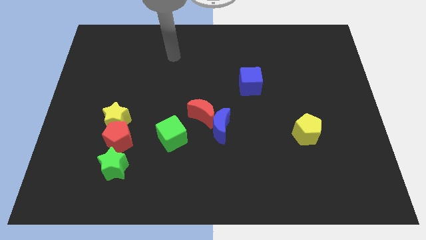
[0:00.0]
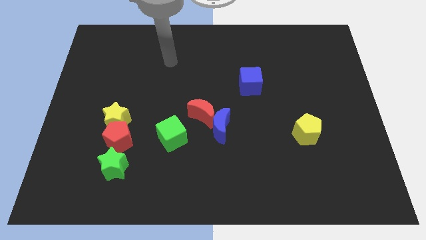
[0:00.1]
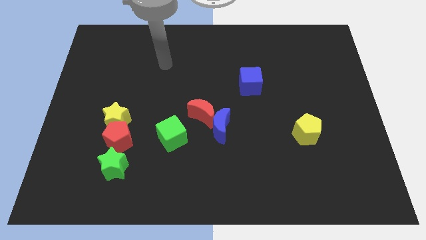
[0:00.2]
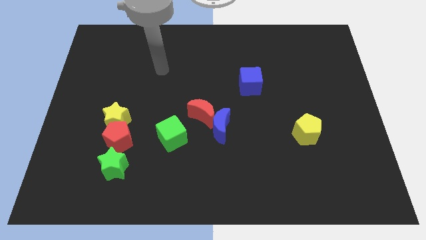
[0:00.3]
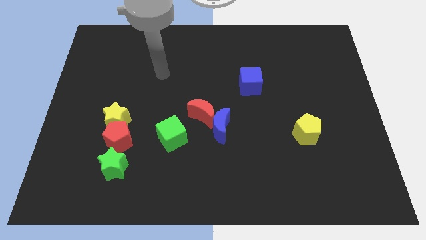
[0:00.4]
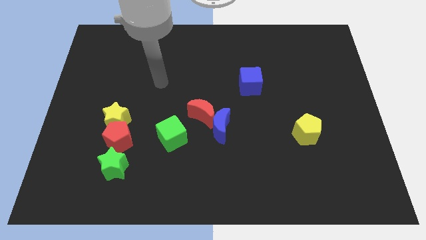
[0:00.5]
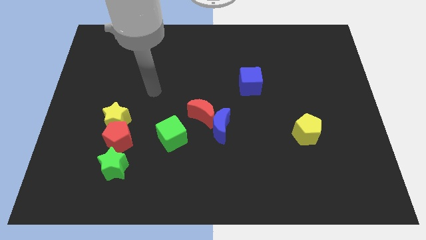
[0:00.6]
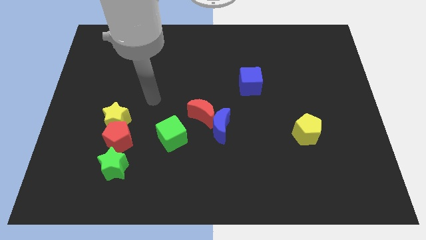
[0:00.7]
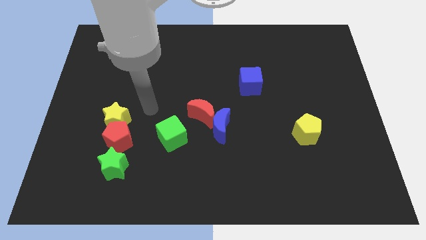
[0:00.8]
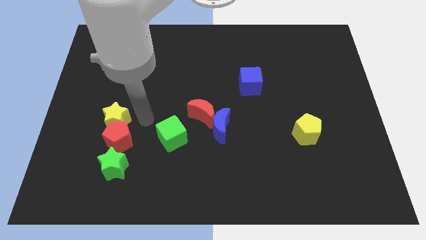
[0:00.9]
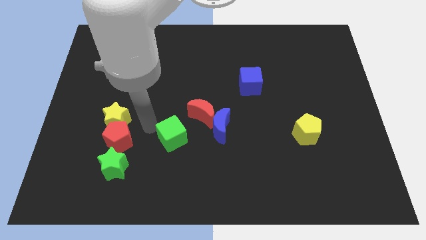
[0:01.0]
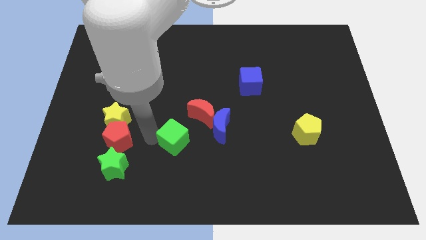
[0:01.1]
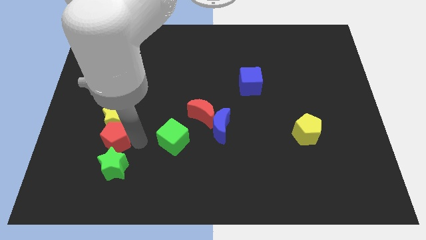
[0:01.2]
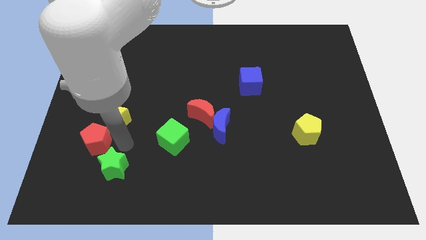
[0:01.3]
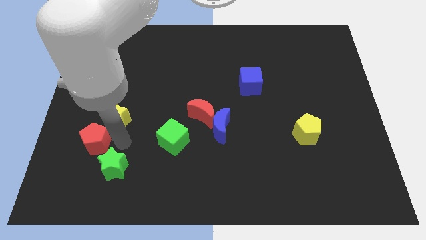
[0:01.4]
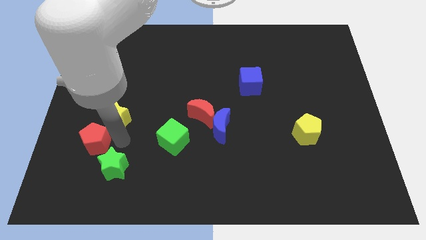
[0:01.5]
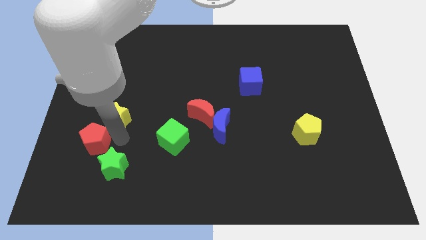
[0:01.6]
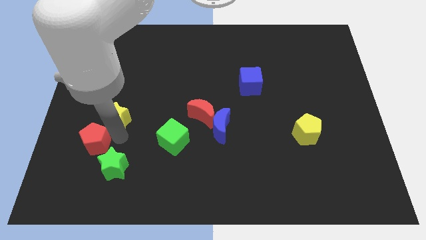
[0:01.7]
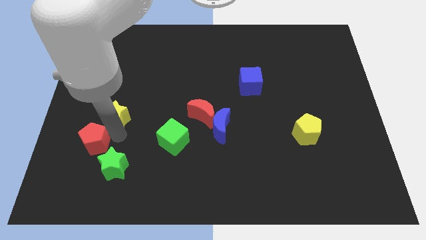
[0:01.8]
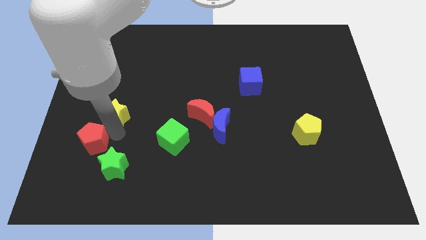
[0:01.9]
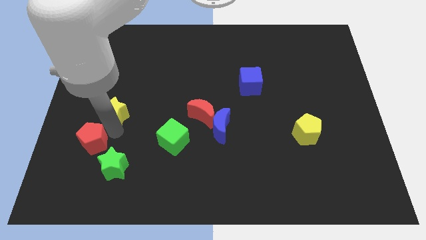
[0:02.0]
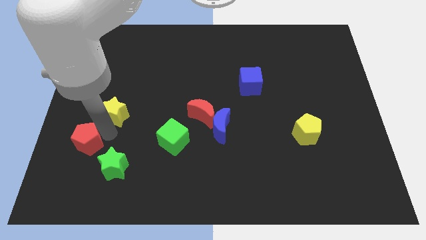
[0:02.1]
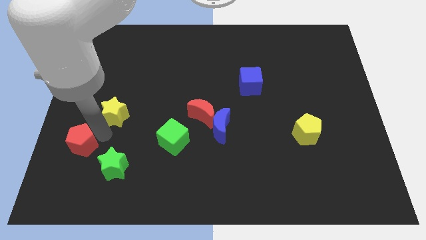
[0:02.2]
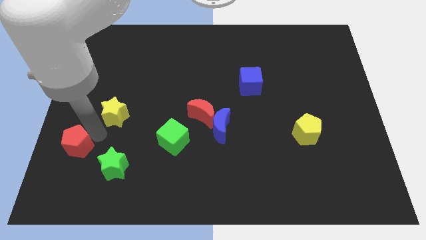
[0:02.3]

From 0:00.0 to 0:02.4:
pull the yellow star apart from the red pentagon

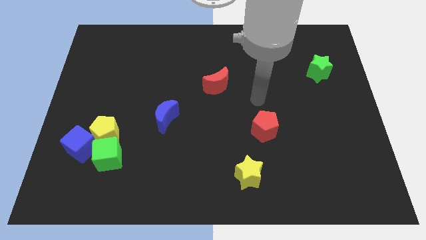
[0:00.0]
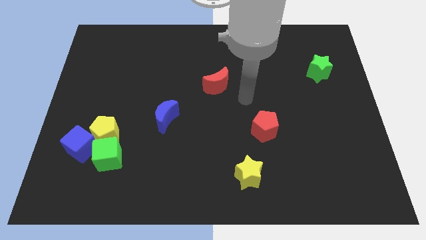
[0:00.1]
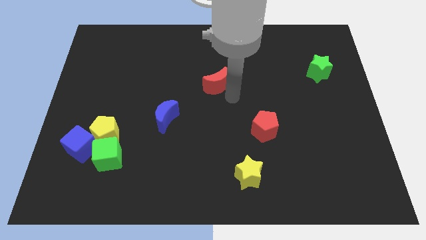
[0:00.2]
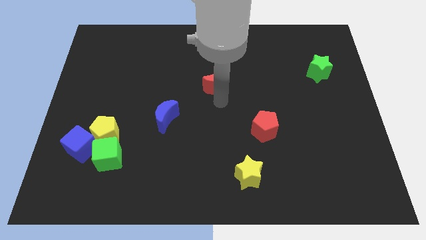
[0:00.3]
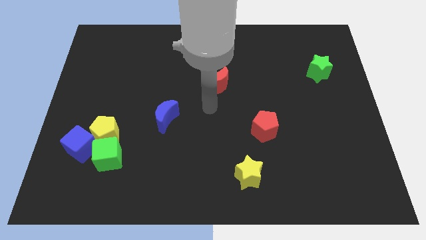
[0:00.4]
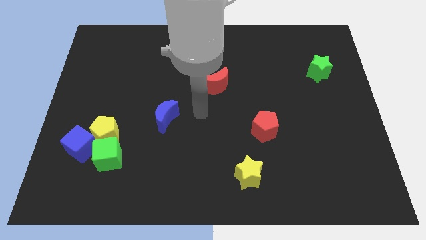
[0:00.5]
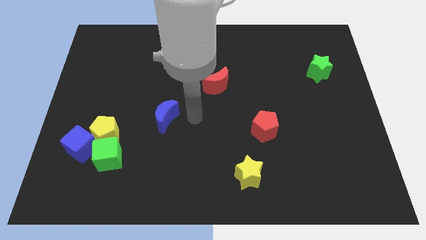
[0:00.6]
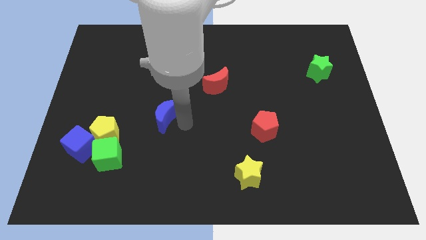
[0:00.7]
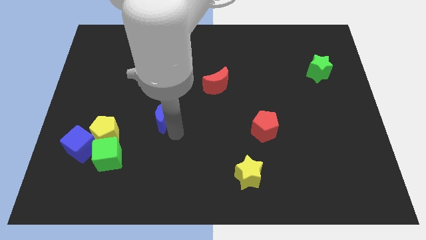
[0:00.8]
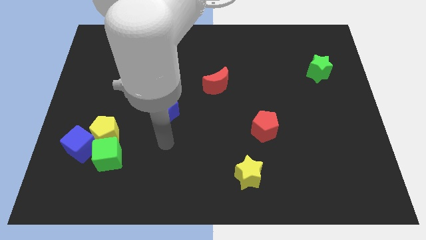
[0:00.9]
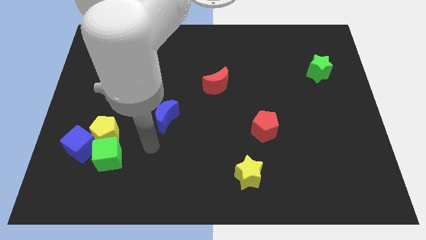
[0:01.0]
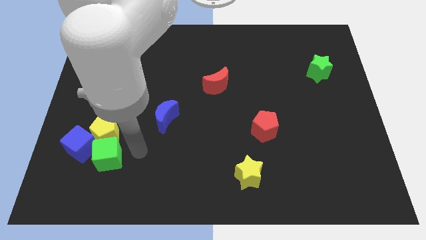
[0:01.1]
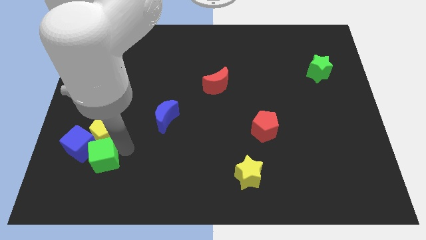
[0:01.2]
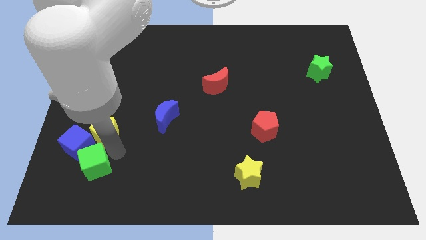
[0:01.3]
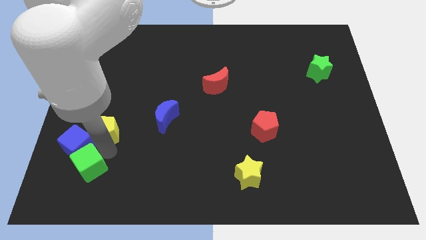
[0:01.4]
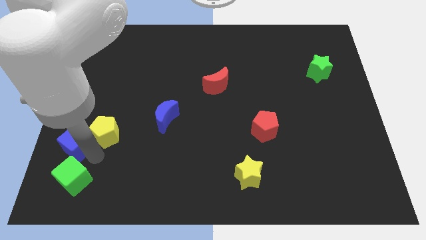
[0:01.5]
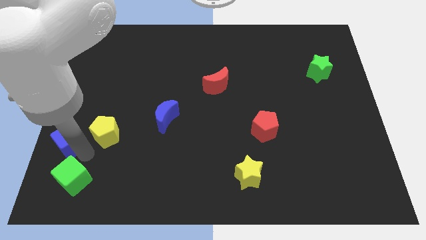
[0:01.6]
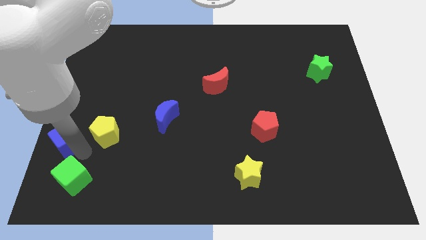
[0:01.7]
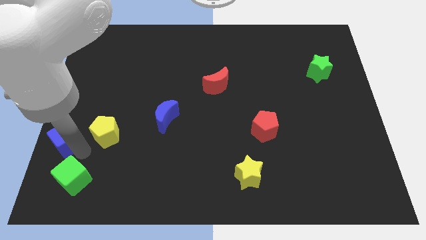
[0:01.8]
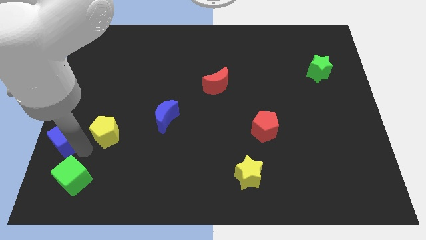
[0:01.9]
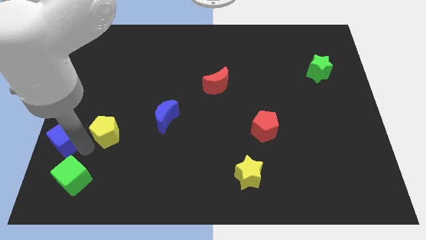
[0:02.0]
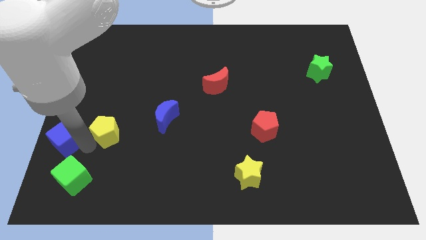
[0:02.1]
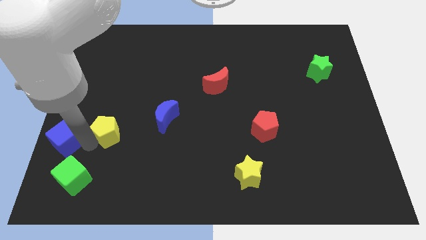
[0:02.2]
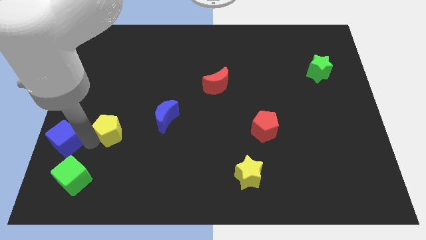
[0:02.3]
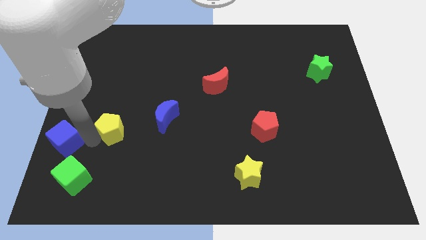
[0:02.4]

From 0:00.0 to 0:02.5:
pull the yellow pentagon apart from the blue cube and green cube

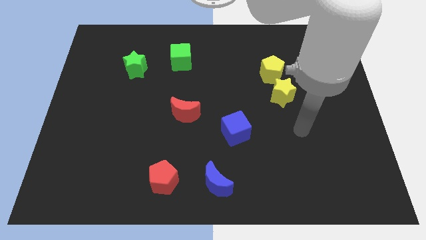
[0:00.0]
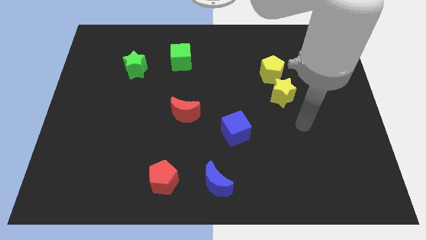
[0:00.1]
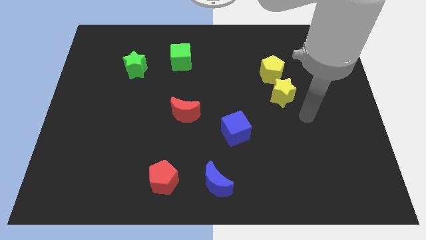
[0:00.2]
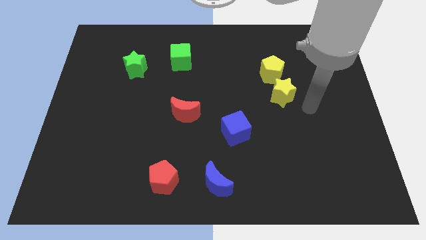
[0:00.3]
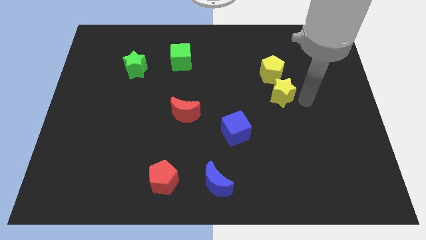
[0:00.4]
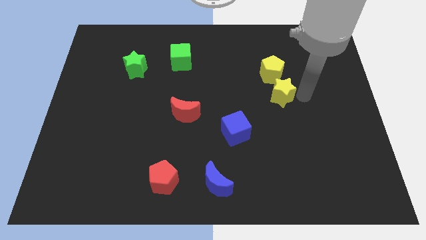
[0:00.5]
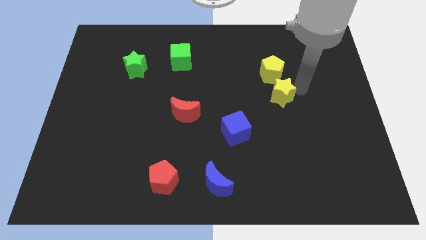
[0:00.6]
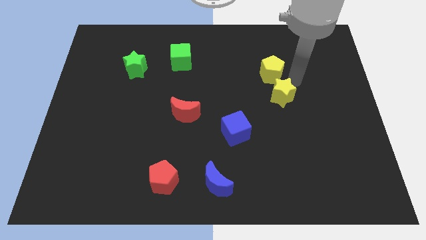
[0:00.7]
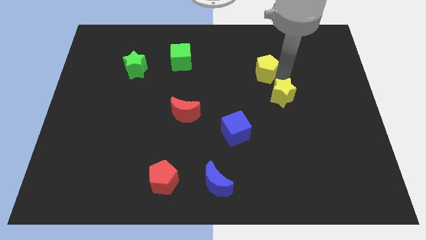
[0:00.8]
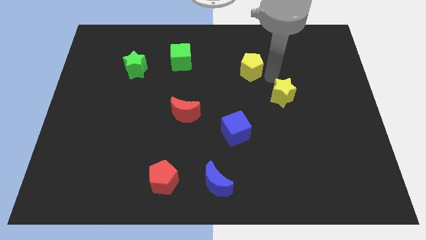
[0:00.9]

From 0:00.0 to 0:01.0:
move the yellow star away from the yellow pentagon

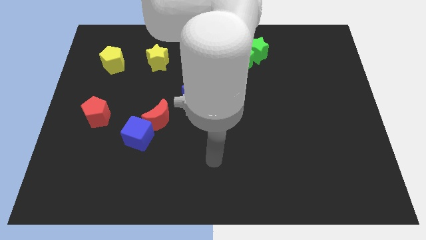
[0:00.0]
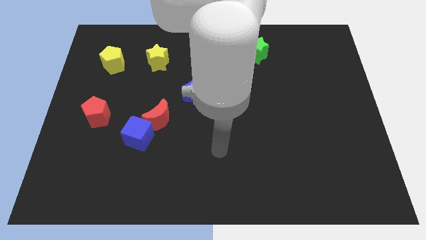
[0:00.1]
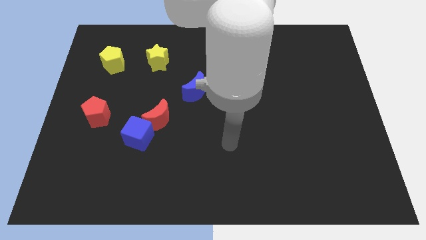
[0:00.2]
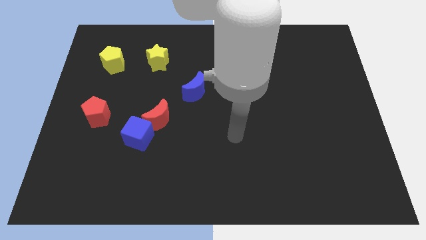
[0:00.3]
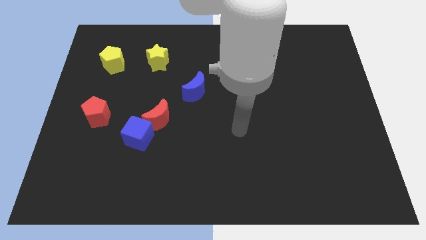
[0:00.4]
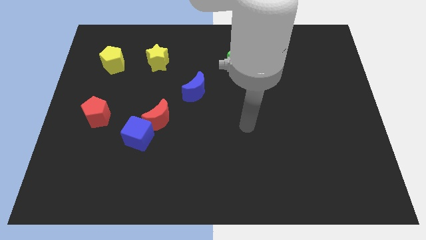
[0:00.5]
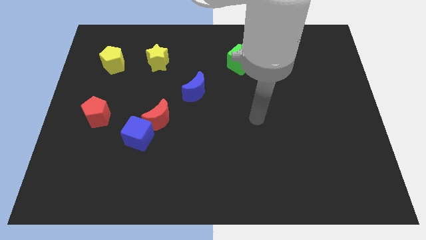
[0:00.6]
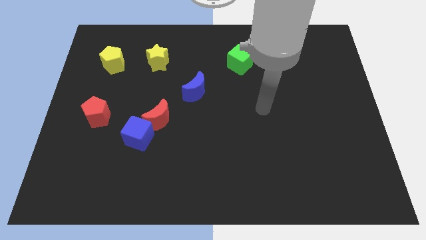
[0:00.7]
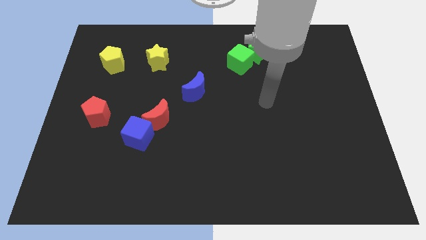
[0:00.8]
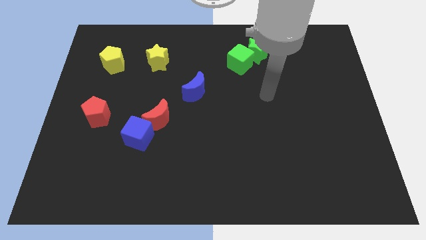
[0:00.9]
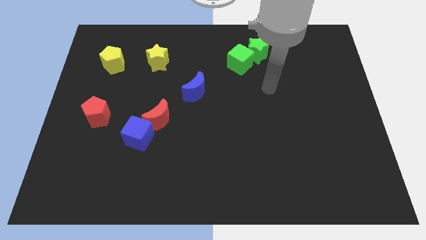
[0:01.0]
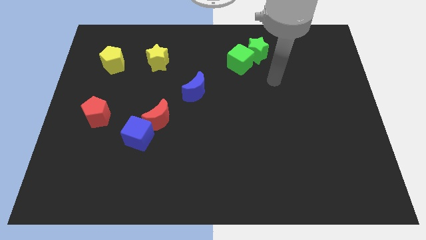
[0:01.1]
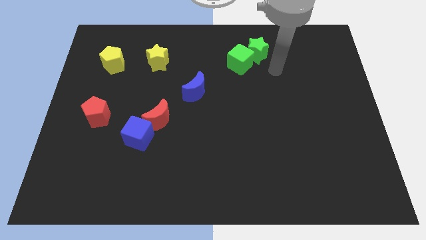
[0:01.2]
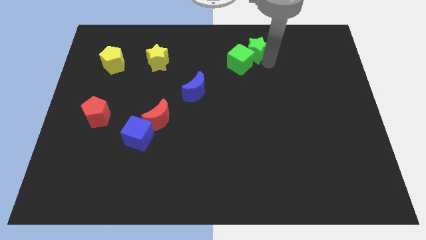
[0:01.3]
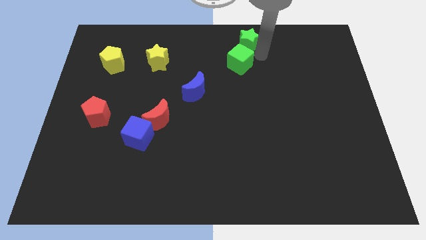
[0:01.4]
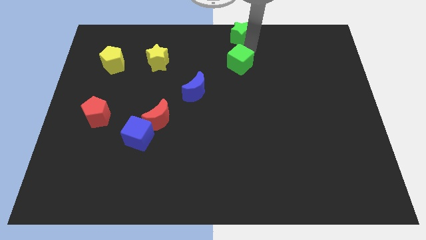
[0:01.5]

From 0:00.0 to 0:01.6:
pull the green cube apart from the green star

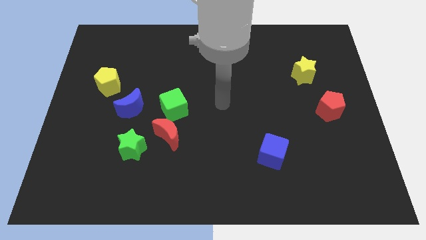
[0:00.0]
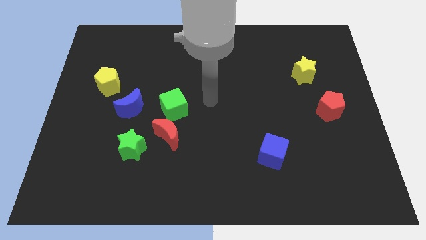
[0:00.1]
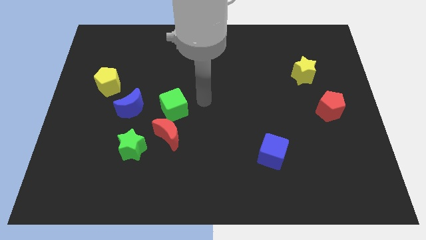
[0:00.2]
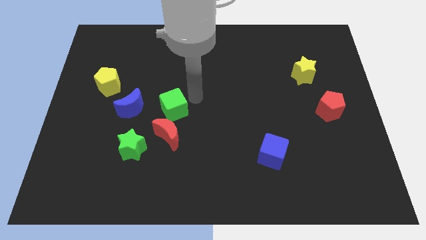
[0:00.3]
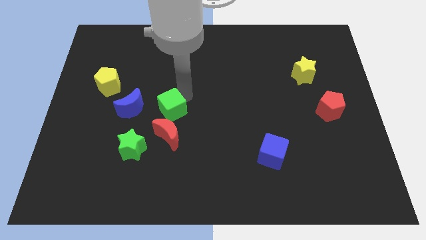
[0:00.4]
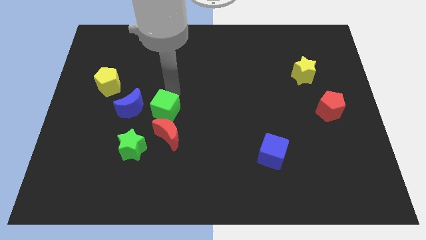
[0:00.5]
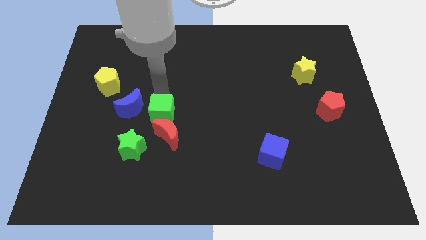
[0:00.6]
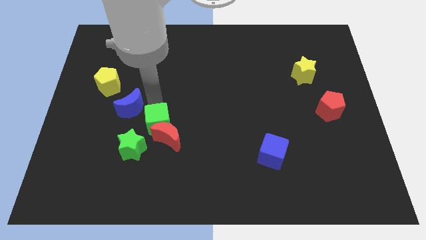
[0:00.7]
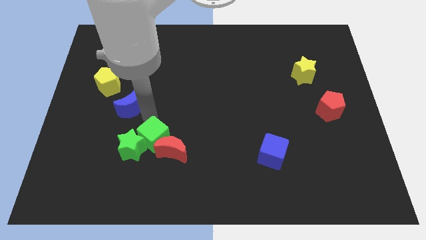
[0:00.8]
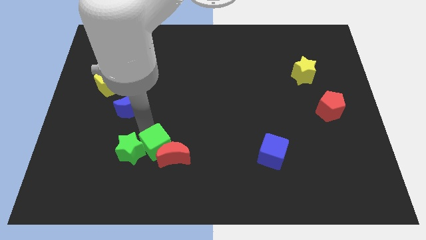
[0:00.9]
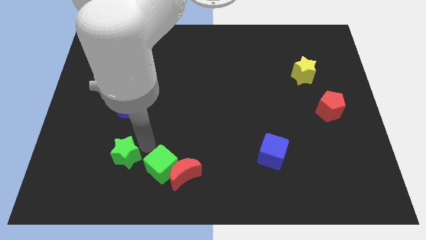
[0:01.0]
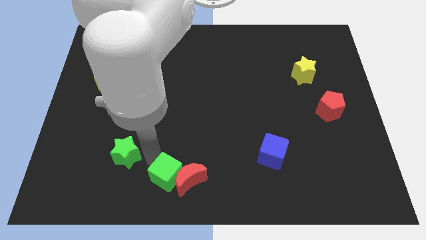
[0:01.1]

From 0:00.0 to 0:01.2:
separate the red moon from the green cube and green star

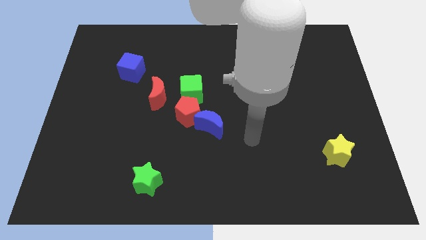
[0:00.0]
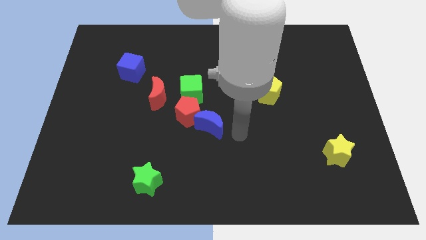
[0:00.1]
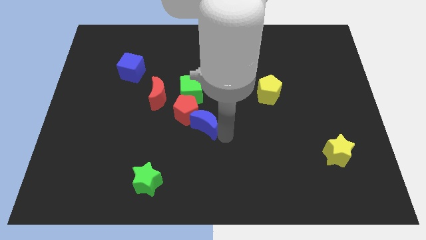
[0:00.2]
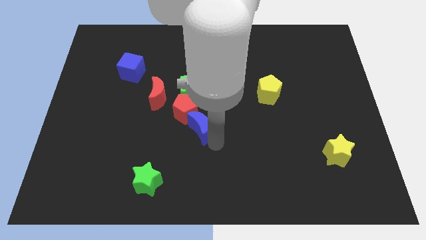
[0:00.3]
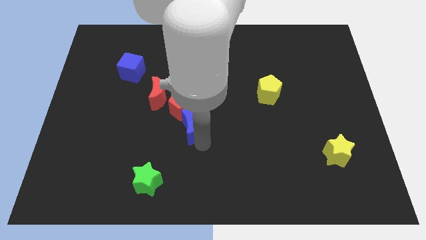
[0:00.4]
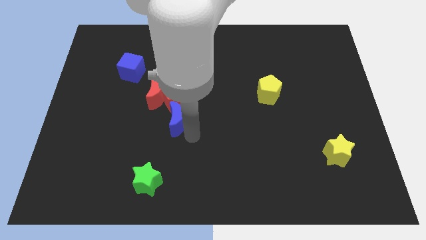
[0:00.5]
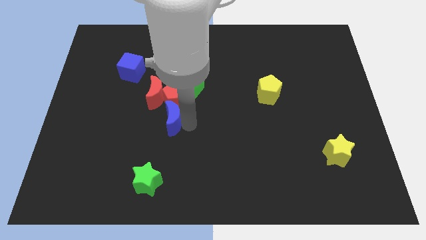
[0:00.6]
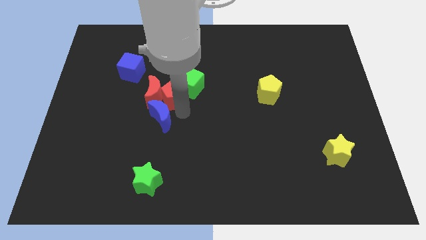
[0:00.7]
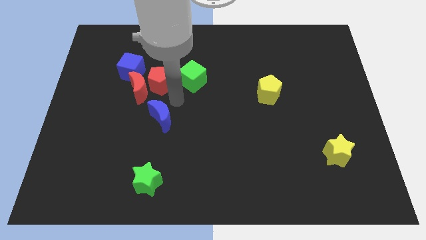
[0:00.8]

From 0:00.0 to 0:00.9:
separate the blue moon from the red pentagon
